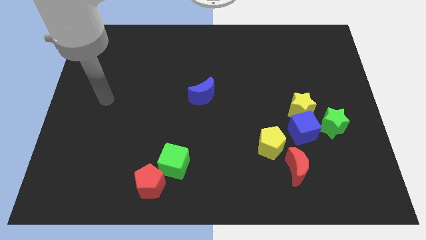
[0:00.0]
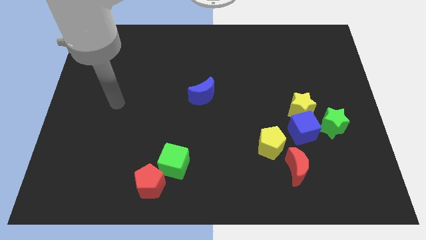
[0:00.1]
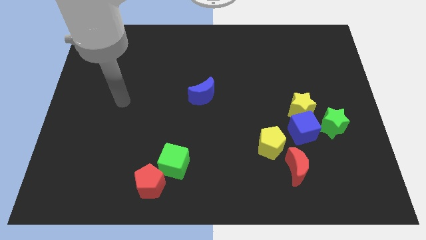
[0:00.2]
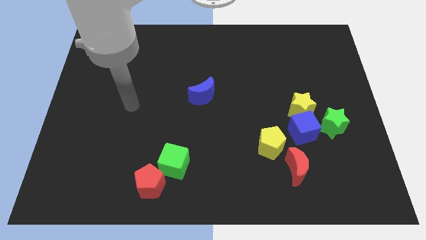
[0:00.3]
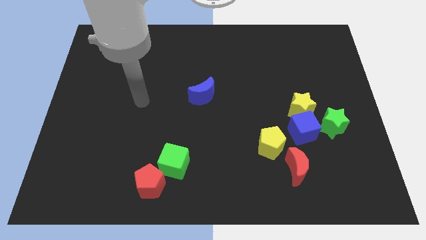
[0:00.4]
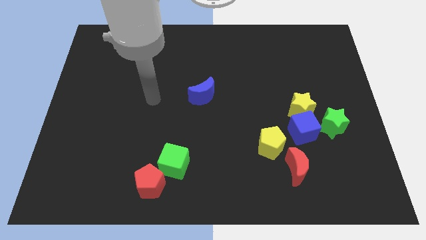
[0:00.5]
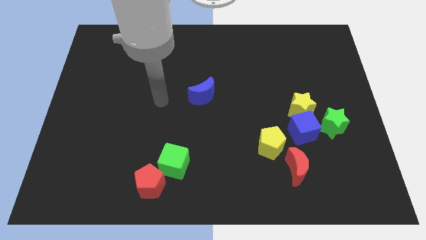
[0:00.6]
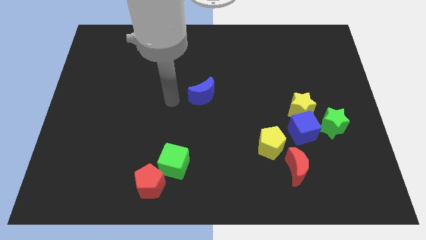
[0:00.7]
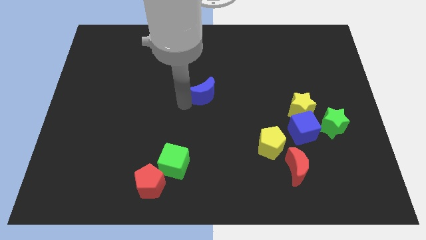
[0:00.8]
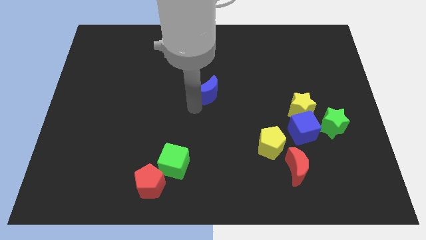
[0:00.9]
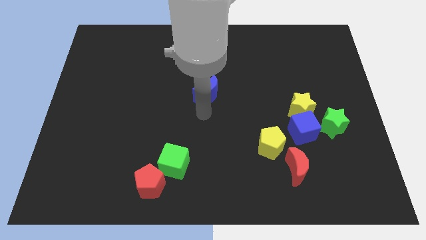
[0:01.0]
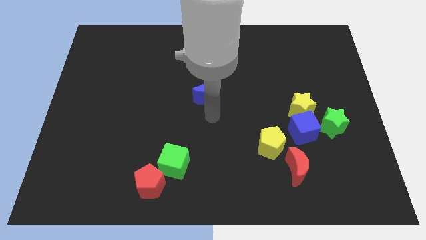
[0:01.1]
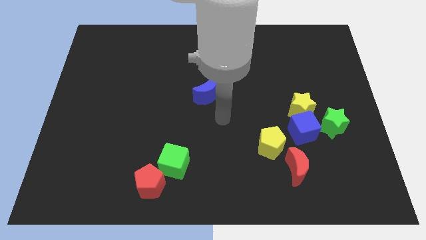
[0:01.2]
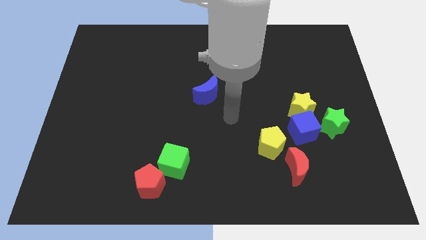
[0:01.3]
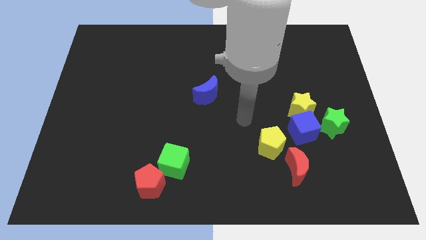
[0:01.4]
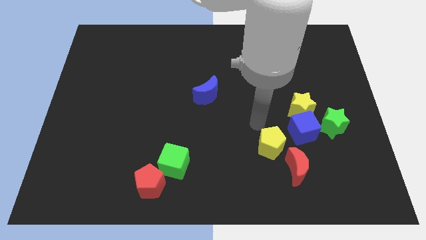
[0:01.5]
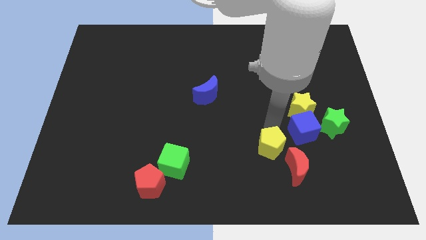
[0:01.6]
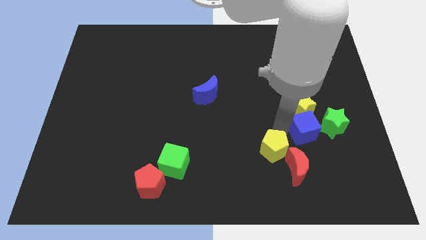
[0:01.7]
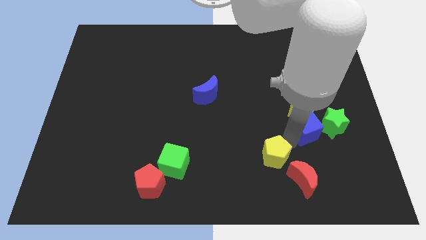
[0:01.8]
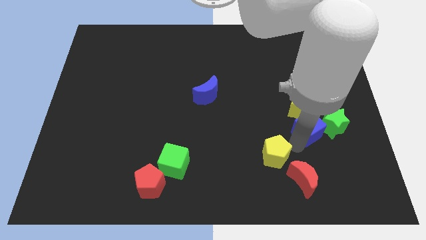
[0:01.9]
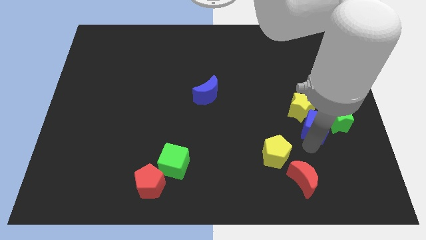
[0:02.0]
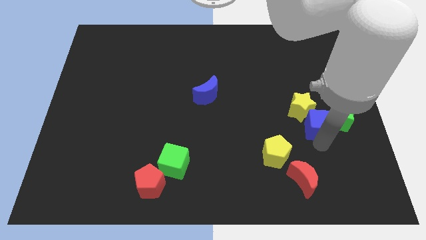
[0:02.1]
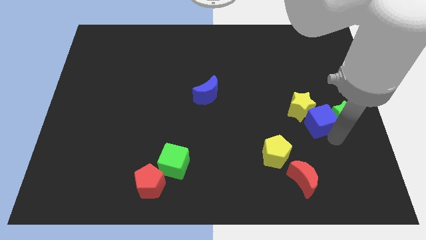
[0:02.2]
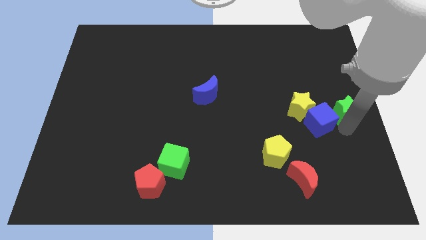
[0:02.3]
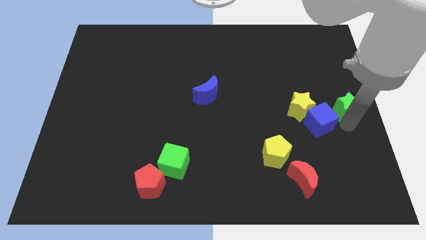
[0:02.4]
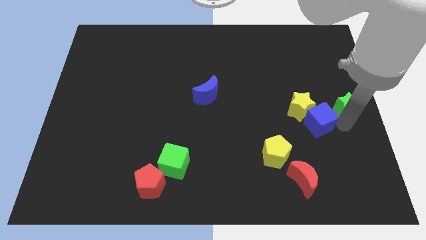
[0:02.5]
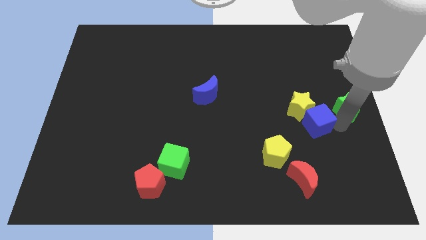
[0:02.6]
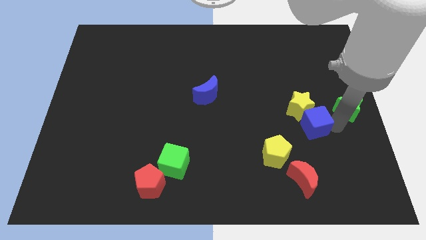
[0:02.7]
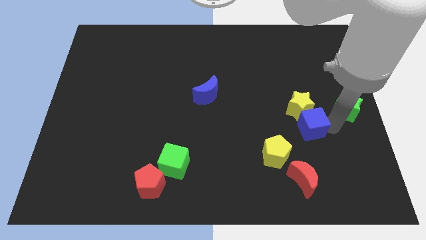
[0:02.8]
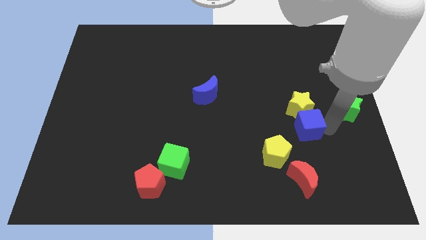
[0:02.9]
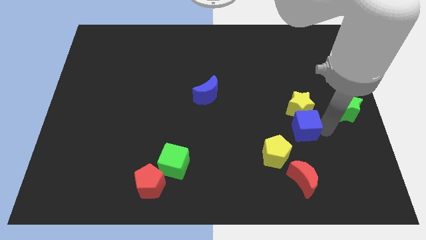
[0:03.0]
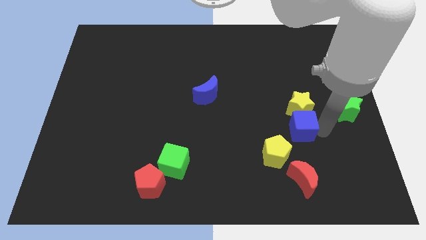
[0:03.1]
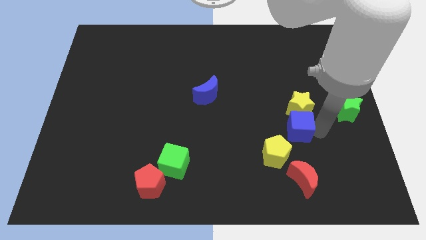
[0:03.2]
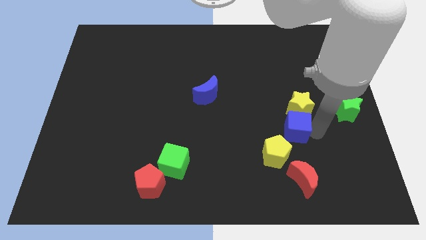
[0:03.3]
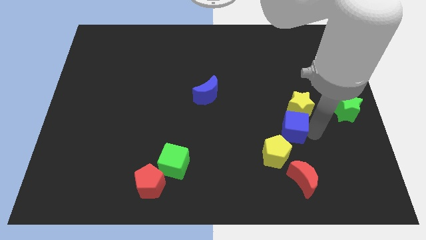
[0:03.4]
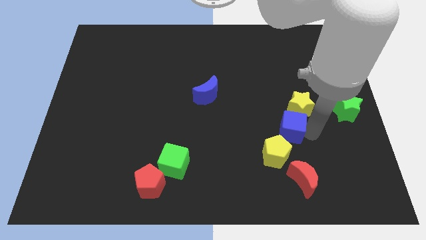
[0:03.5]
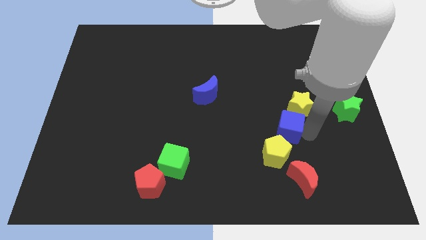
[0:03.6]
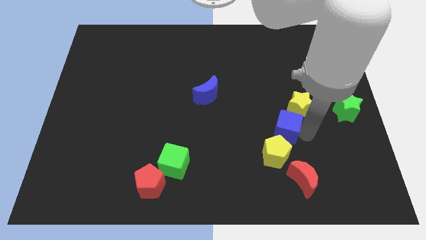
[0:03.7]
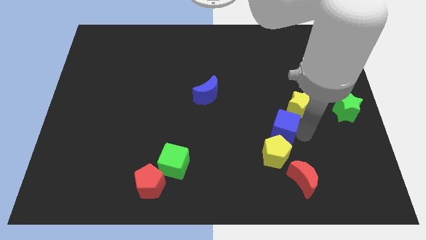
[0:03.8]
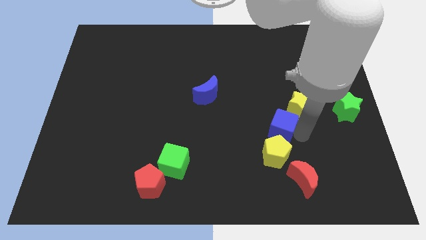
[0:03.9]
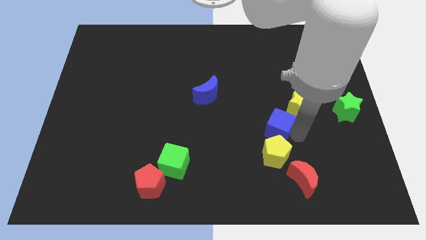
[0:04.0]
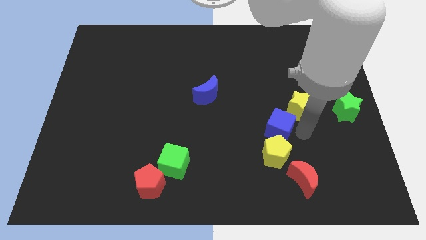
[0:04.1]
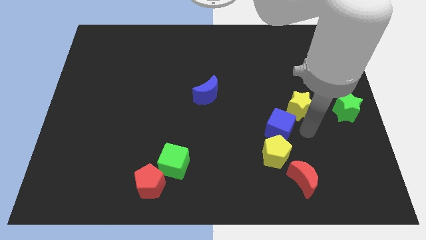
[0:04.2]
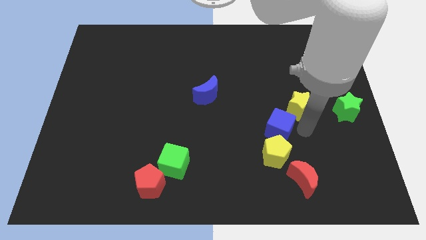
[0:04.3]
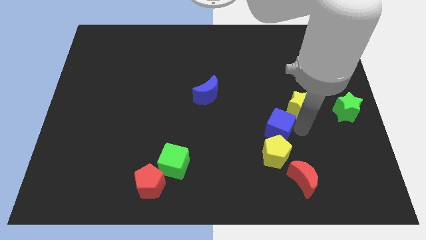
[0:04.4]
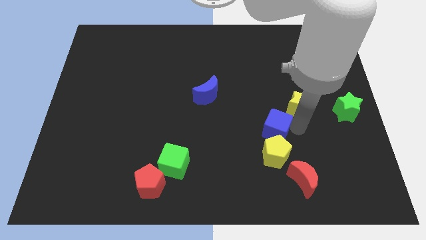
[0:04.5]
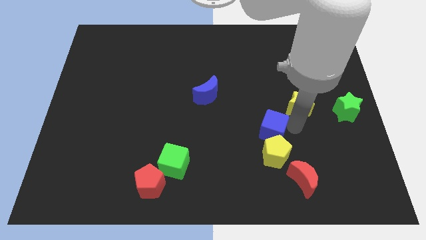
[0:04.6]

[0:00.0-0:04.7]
slightly push the blue cube to the left

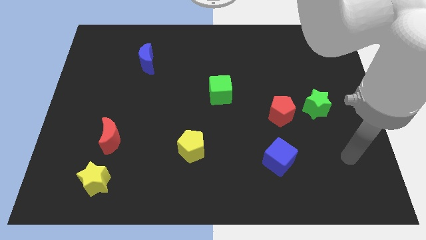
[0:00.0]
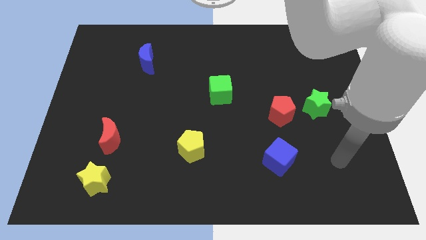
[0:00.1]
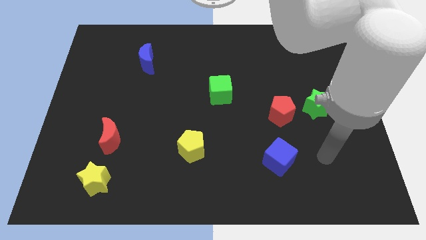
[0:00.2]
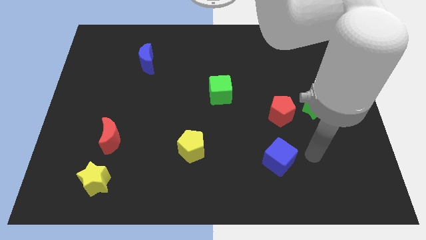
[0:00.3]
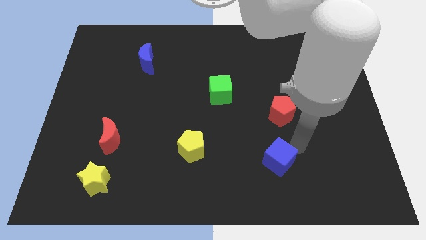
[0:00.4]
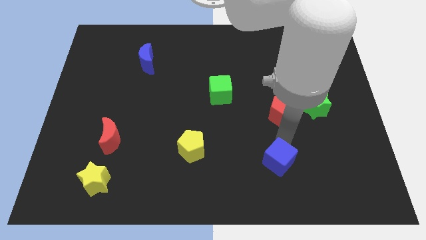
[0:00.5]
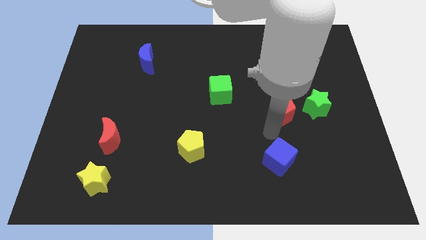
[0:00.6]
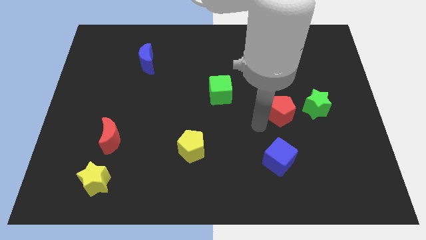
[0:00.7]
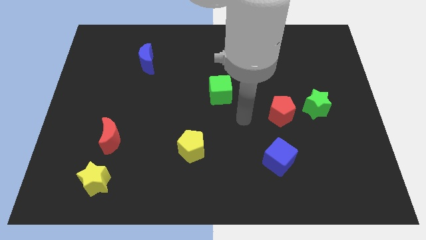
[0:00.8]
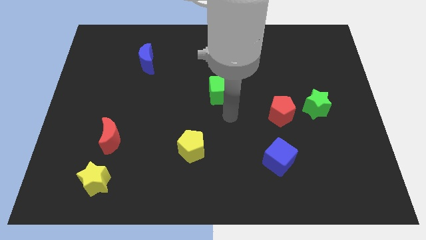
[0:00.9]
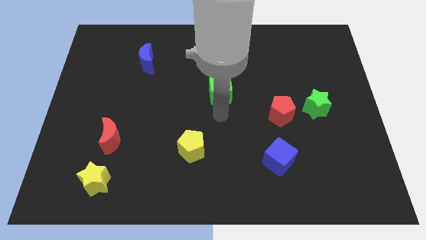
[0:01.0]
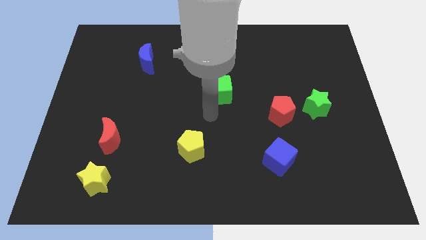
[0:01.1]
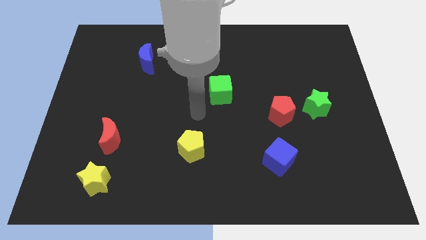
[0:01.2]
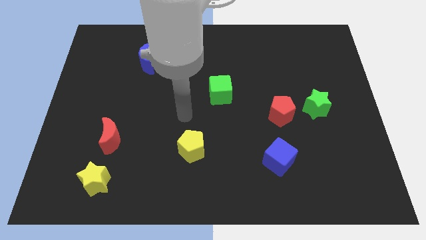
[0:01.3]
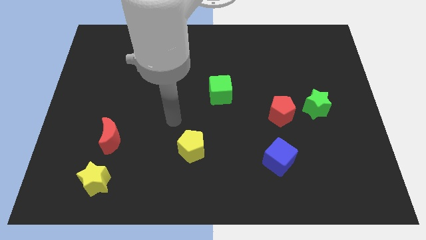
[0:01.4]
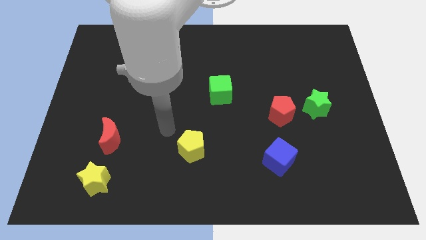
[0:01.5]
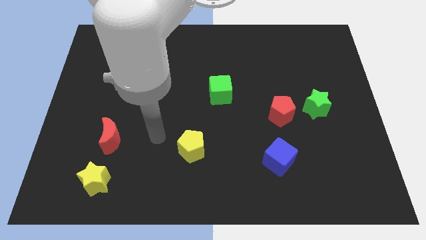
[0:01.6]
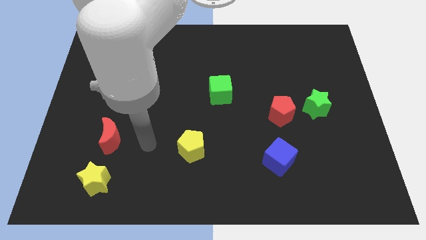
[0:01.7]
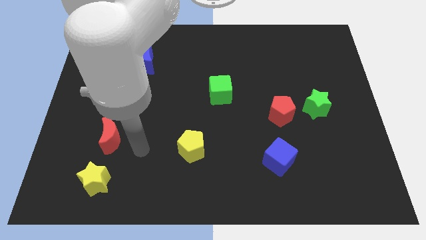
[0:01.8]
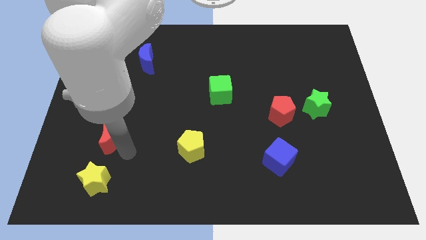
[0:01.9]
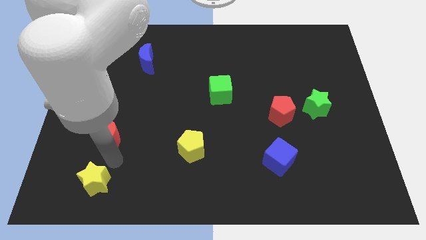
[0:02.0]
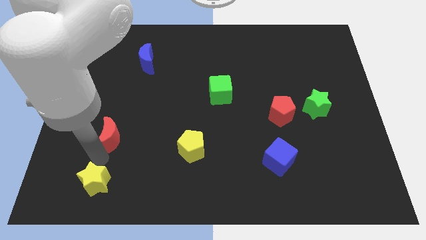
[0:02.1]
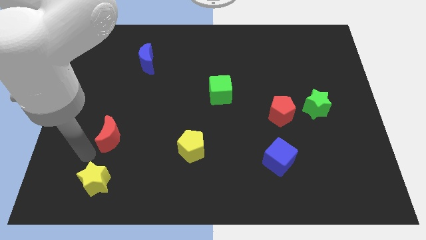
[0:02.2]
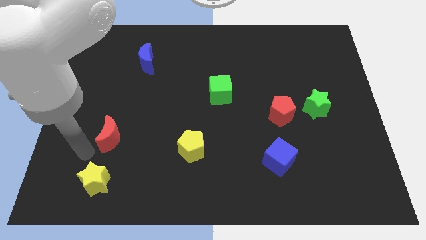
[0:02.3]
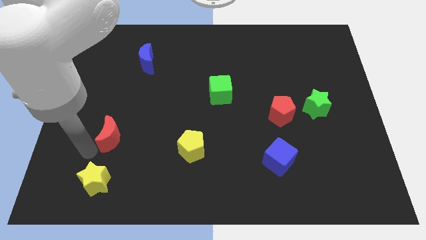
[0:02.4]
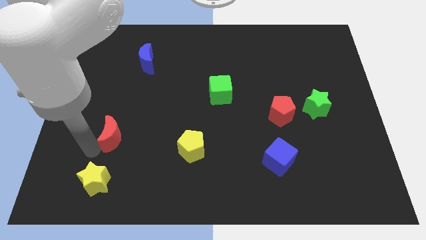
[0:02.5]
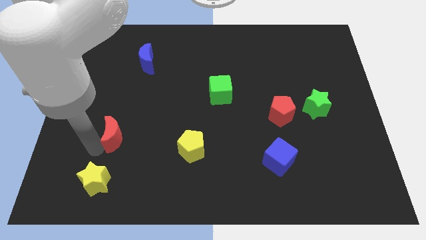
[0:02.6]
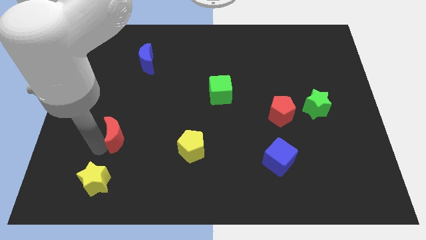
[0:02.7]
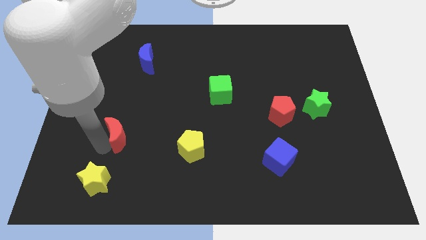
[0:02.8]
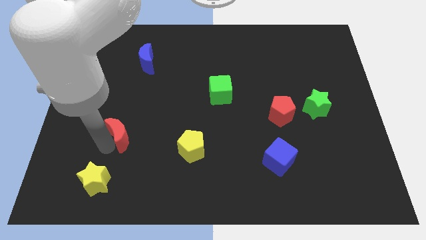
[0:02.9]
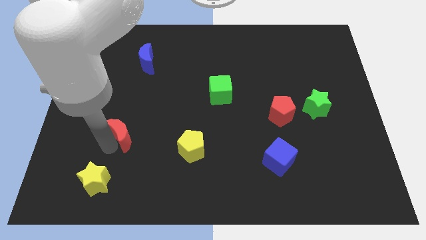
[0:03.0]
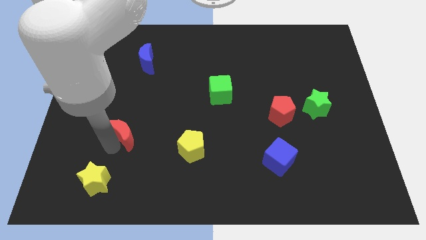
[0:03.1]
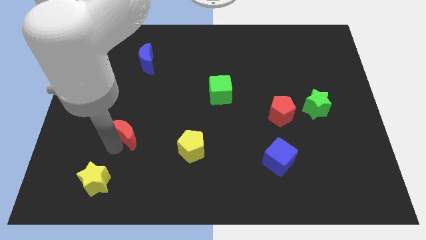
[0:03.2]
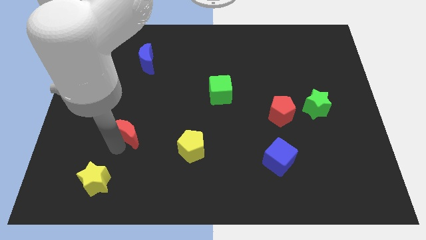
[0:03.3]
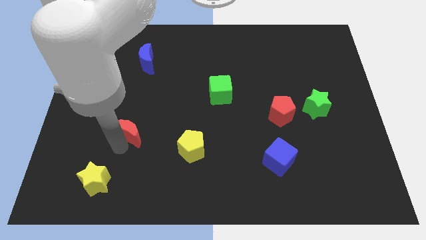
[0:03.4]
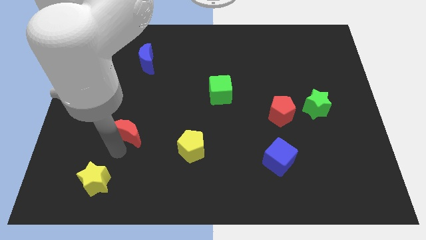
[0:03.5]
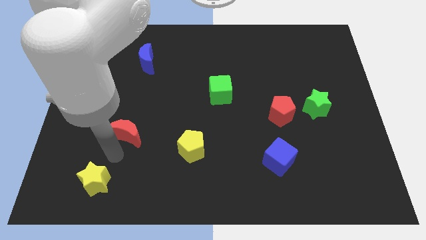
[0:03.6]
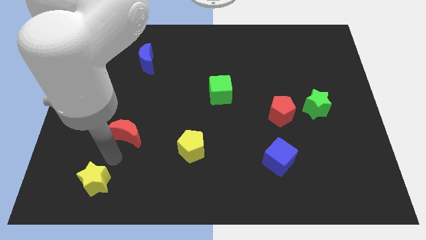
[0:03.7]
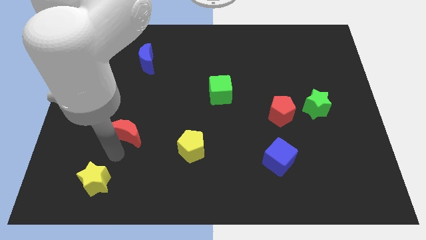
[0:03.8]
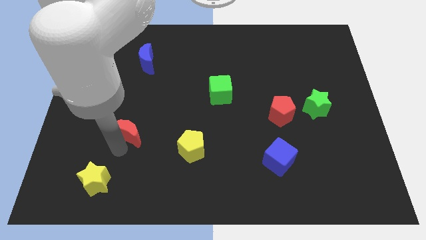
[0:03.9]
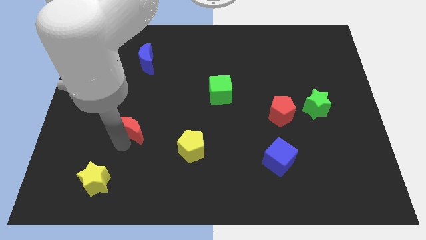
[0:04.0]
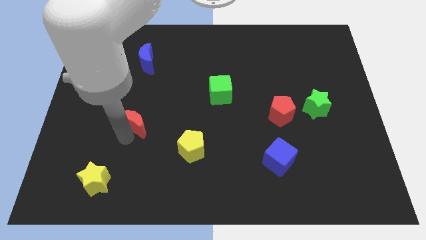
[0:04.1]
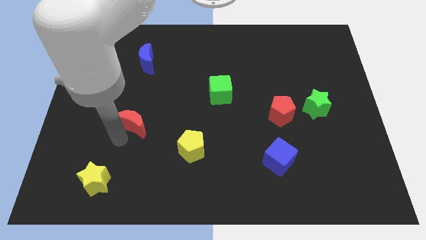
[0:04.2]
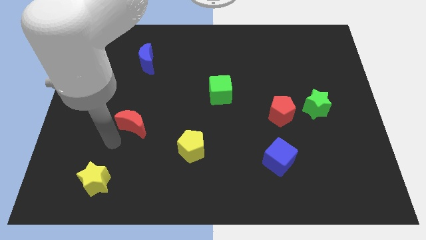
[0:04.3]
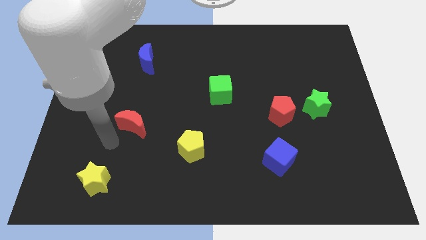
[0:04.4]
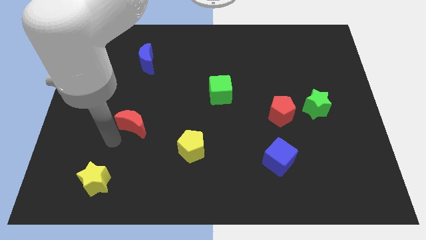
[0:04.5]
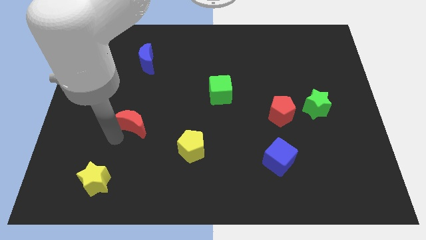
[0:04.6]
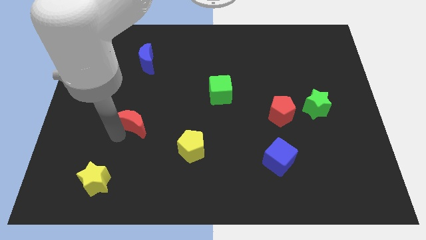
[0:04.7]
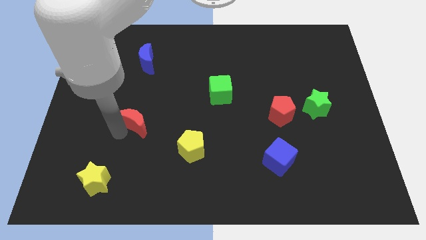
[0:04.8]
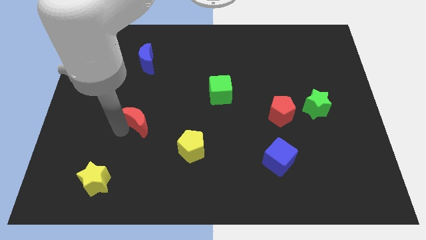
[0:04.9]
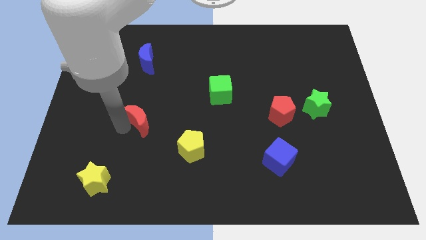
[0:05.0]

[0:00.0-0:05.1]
slightly move the red moon up and then to the right
